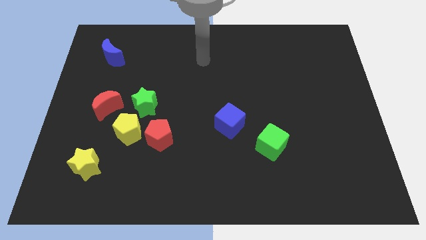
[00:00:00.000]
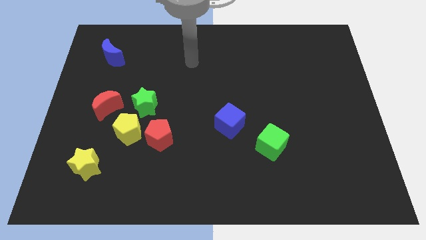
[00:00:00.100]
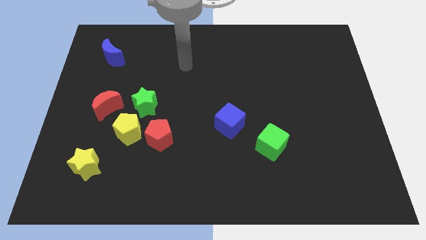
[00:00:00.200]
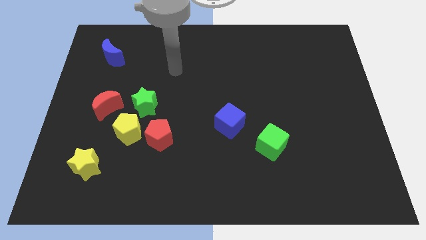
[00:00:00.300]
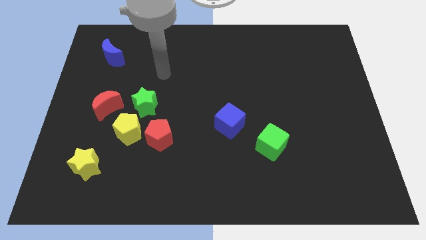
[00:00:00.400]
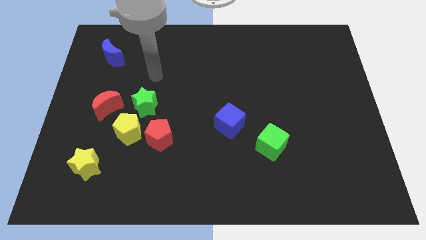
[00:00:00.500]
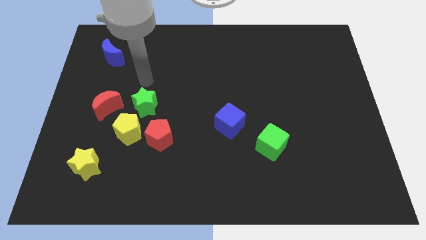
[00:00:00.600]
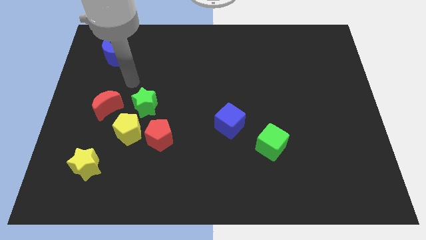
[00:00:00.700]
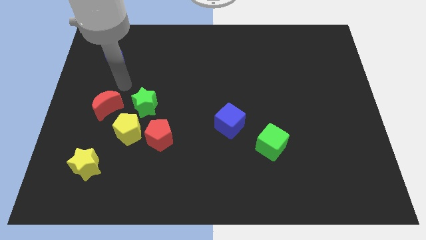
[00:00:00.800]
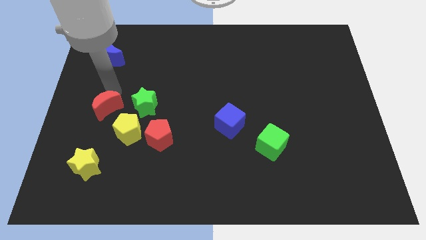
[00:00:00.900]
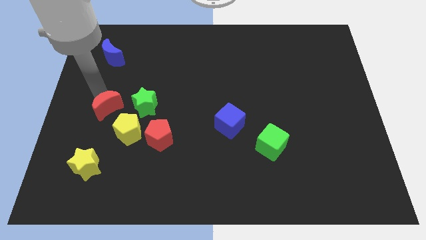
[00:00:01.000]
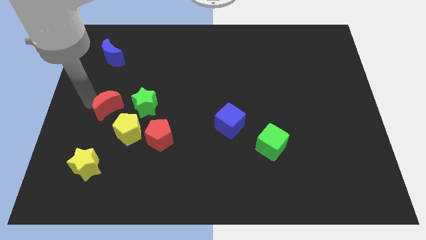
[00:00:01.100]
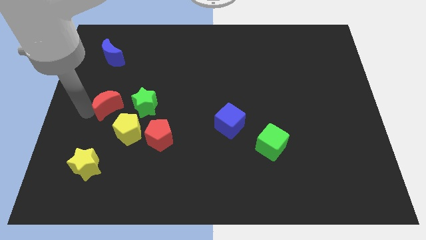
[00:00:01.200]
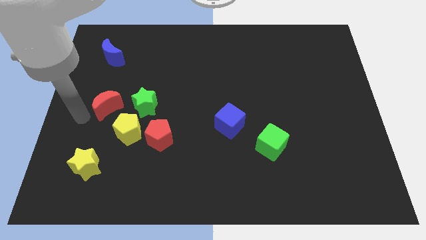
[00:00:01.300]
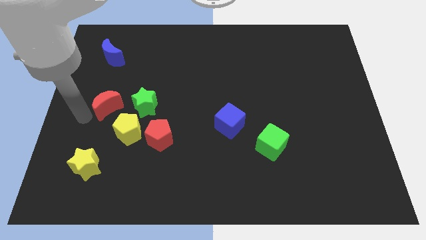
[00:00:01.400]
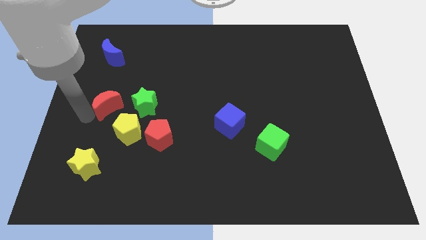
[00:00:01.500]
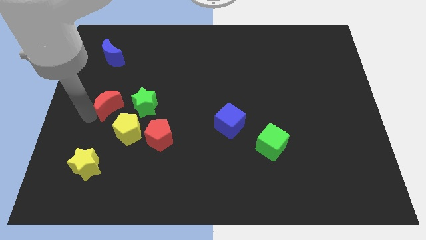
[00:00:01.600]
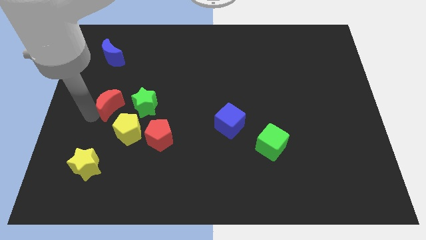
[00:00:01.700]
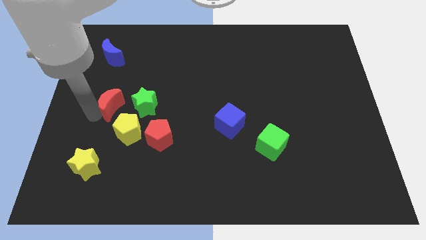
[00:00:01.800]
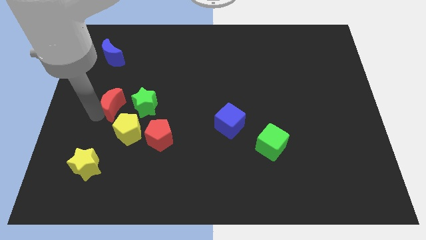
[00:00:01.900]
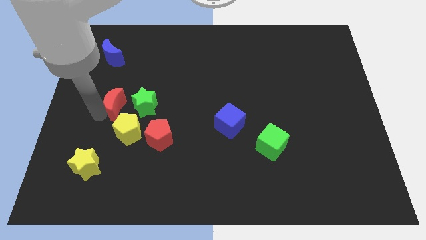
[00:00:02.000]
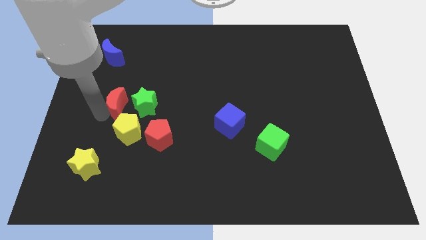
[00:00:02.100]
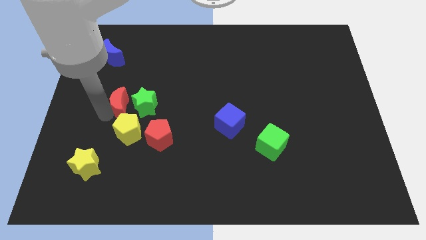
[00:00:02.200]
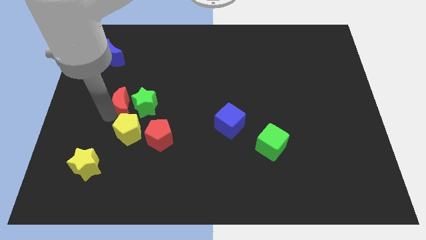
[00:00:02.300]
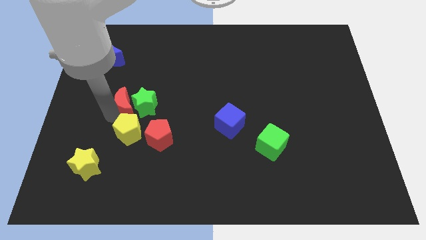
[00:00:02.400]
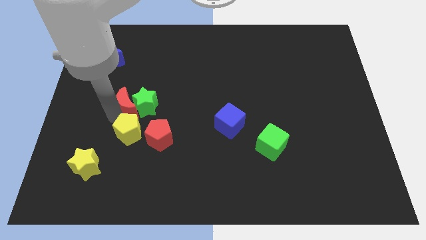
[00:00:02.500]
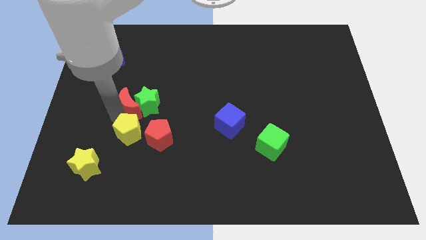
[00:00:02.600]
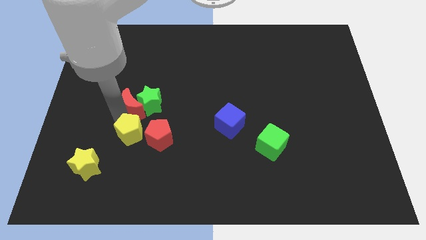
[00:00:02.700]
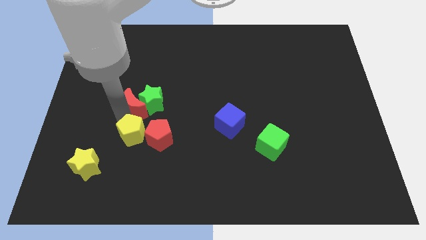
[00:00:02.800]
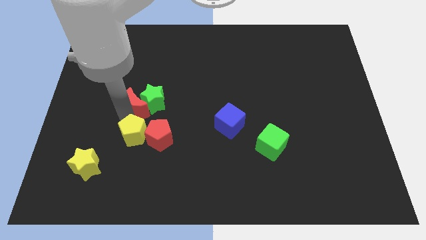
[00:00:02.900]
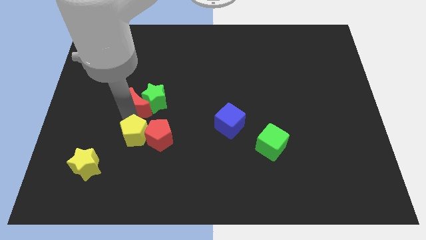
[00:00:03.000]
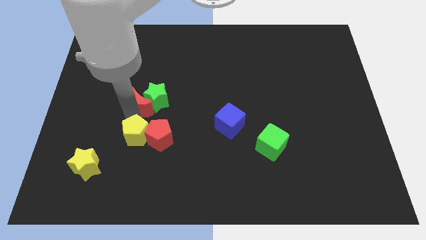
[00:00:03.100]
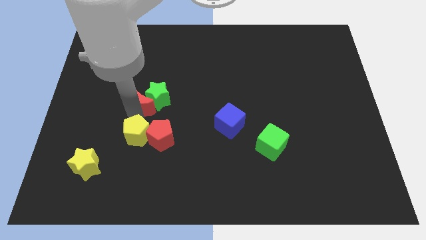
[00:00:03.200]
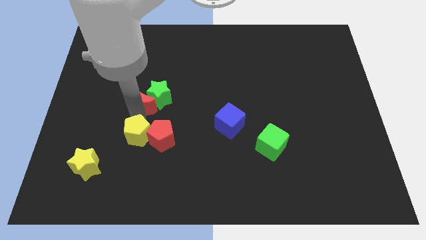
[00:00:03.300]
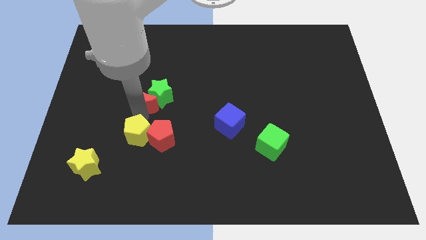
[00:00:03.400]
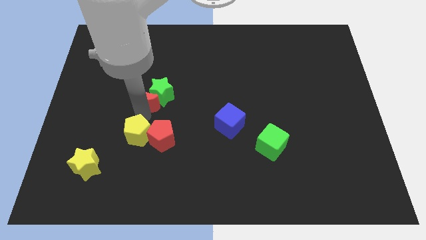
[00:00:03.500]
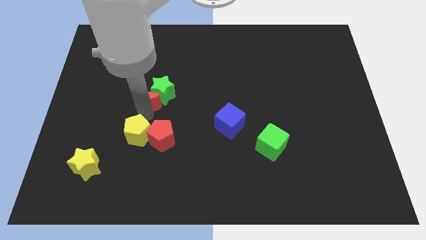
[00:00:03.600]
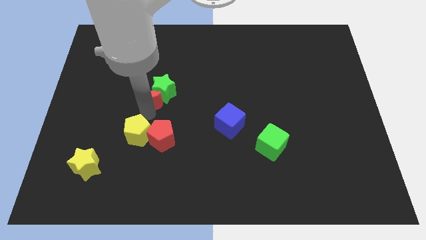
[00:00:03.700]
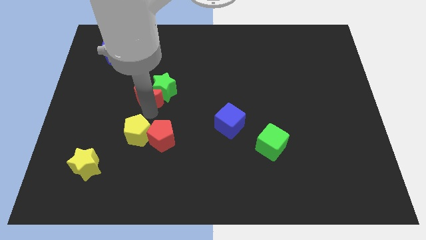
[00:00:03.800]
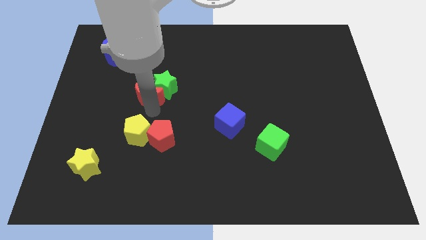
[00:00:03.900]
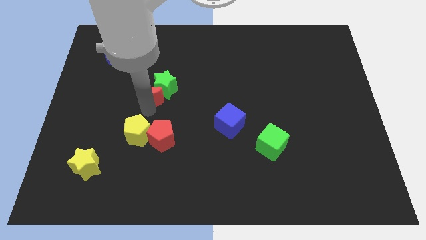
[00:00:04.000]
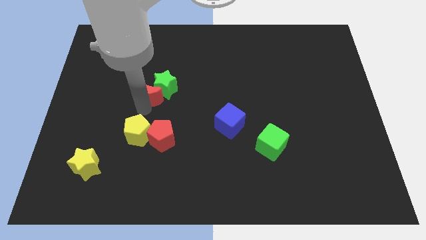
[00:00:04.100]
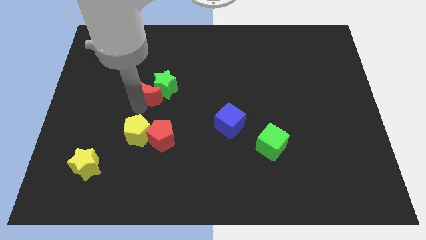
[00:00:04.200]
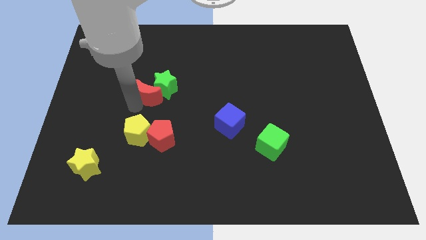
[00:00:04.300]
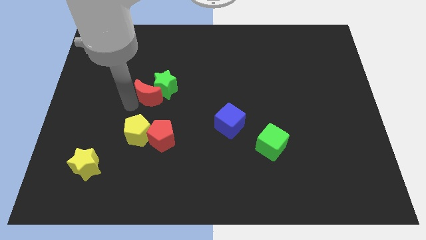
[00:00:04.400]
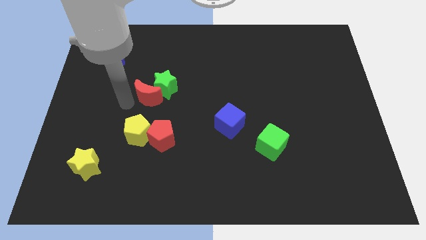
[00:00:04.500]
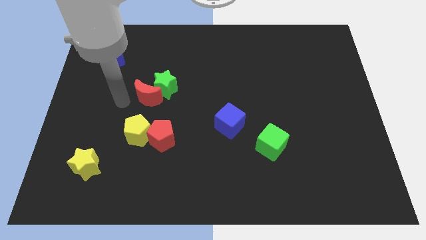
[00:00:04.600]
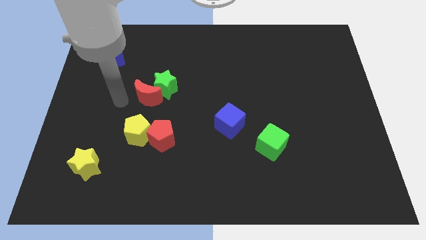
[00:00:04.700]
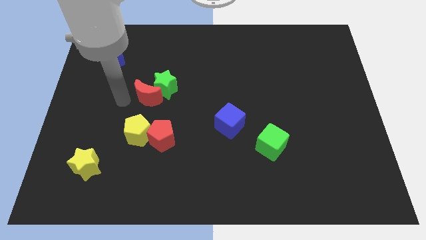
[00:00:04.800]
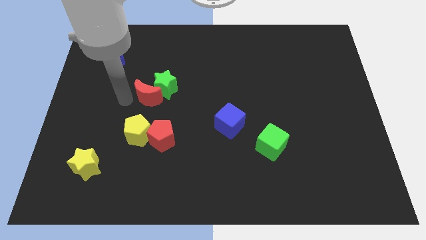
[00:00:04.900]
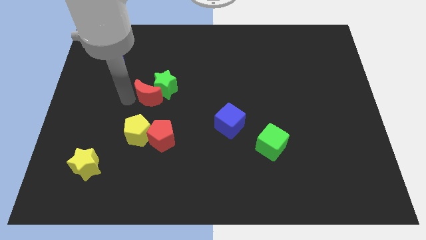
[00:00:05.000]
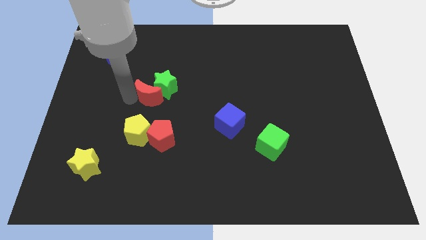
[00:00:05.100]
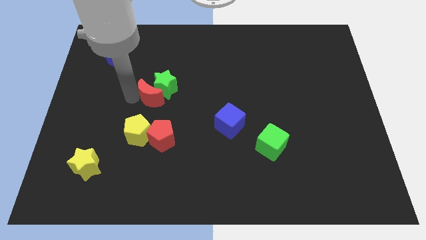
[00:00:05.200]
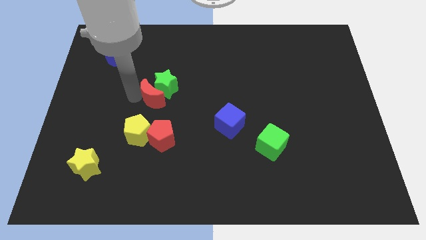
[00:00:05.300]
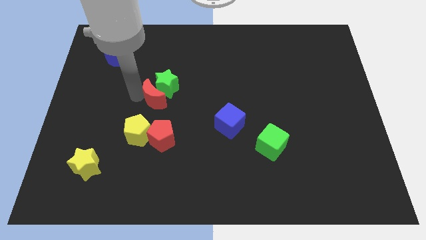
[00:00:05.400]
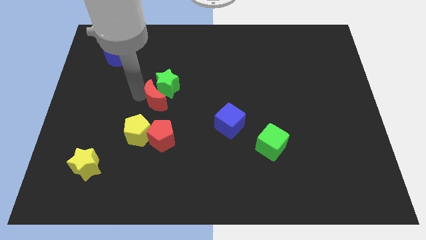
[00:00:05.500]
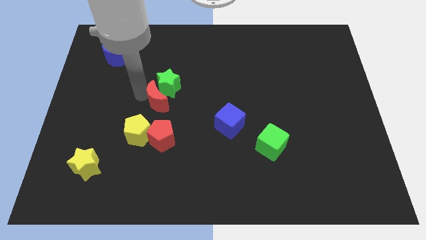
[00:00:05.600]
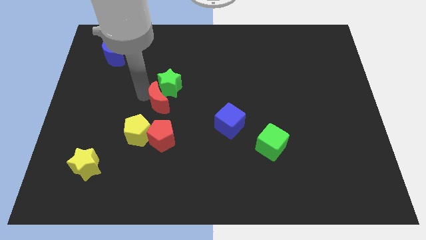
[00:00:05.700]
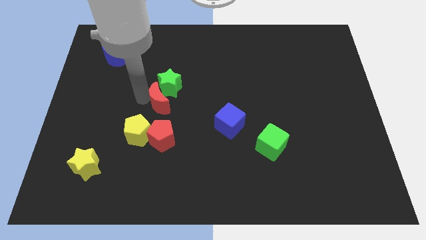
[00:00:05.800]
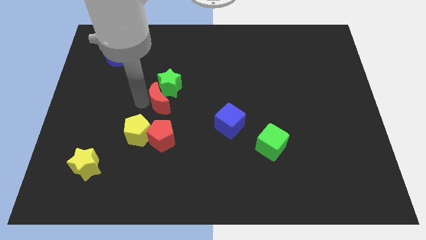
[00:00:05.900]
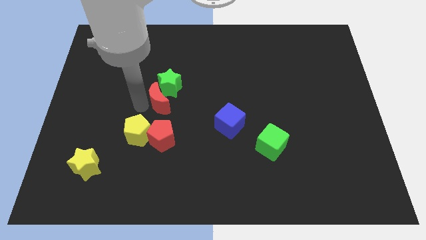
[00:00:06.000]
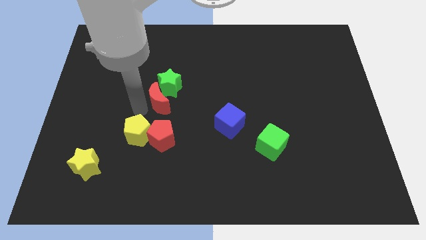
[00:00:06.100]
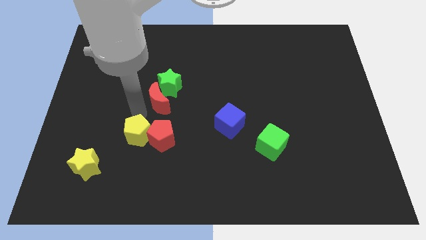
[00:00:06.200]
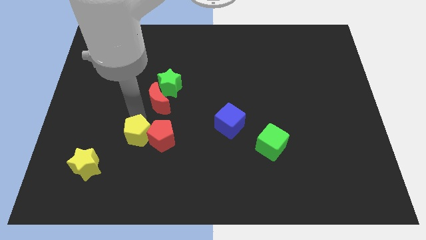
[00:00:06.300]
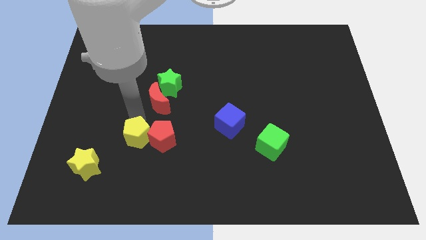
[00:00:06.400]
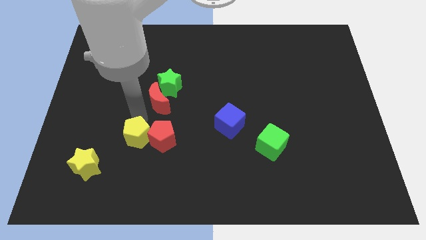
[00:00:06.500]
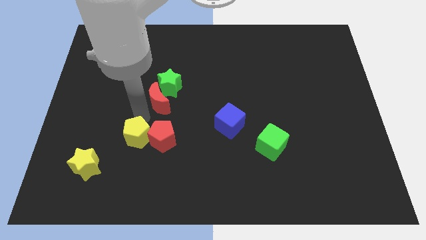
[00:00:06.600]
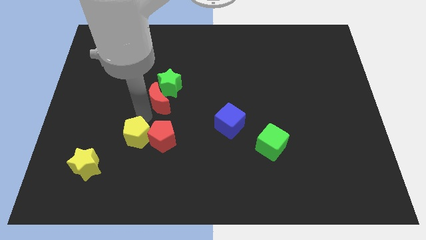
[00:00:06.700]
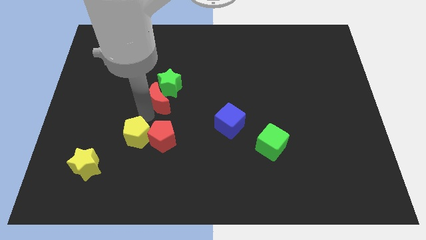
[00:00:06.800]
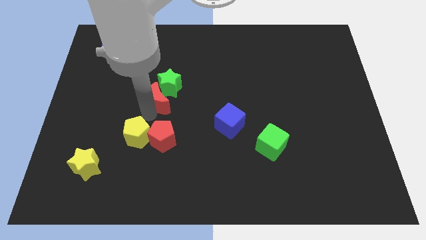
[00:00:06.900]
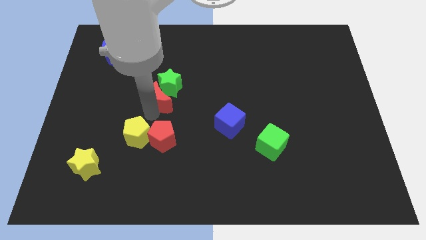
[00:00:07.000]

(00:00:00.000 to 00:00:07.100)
push the red moon to the center of the board
